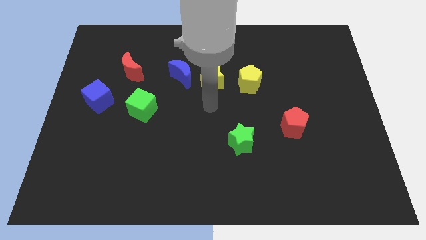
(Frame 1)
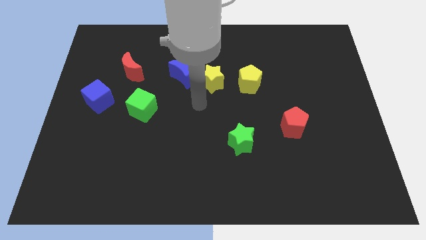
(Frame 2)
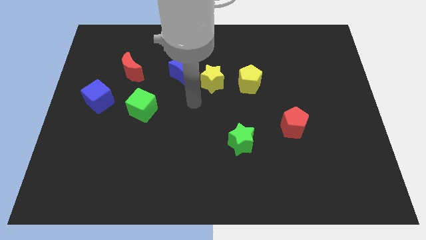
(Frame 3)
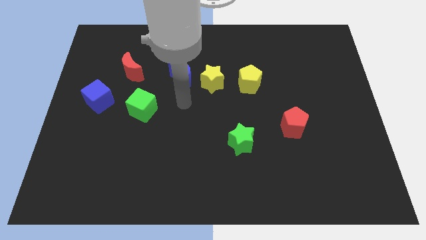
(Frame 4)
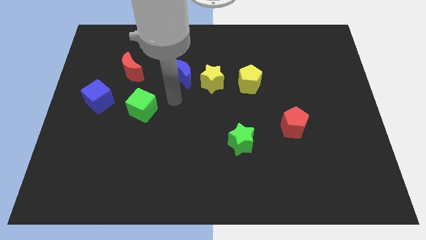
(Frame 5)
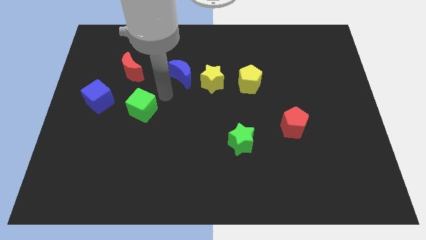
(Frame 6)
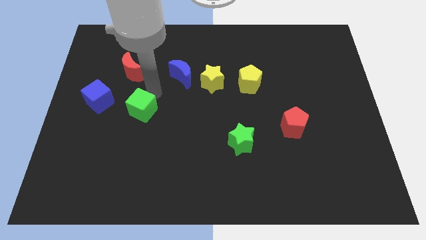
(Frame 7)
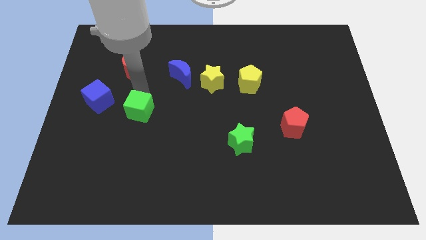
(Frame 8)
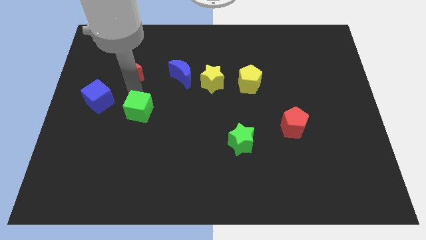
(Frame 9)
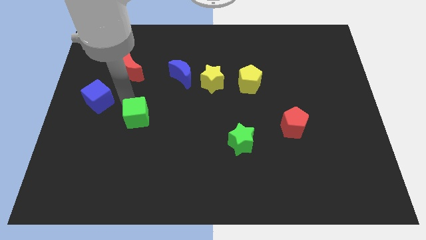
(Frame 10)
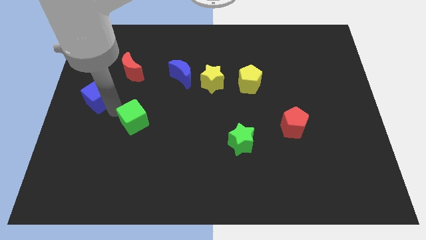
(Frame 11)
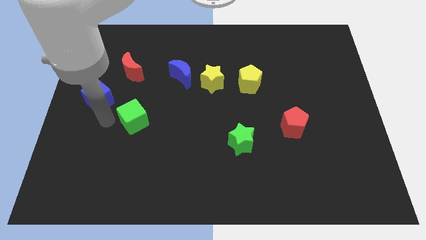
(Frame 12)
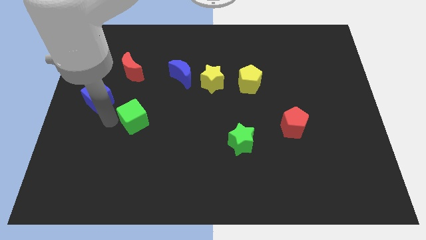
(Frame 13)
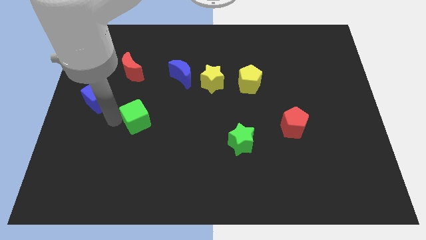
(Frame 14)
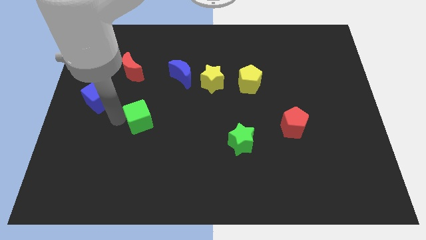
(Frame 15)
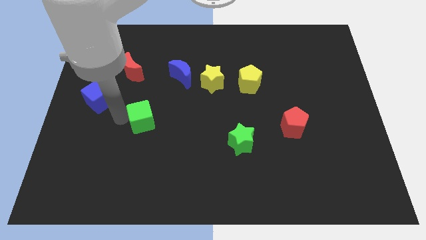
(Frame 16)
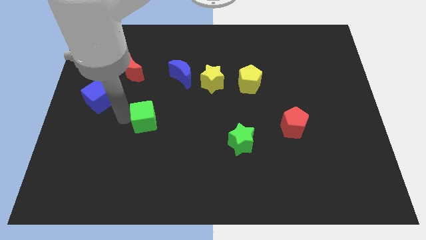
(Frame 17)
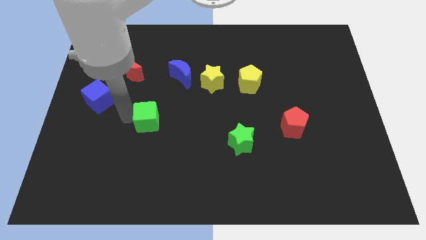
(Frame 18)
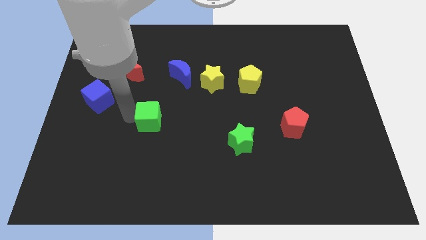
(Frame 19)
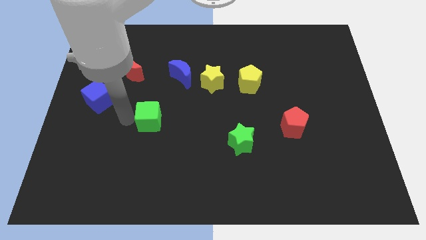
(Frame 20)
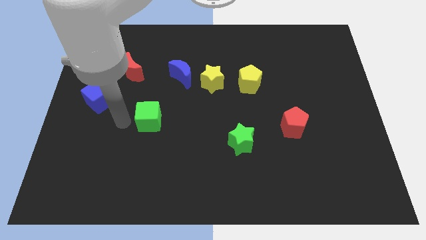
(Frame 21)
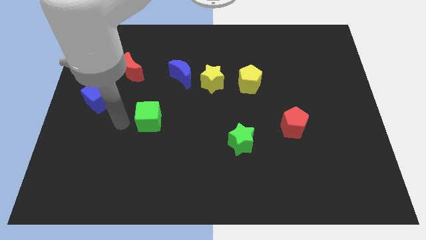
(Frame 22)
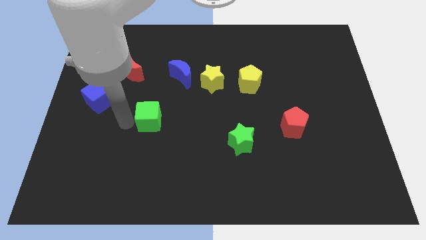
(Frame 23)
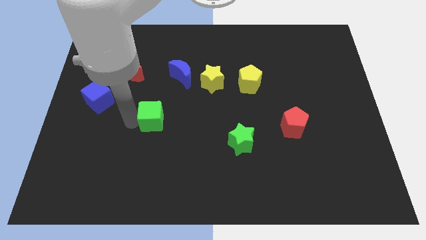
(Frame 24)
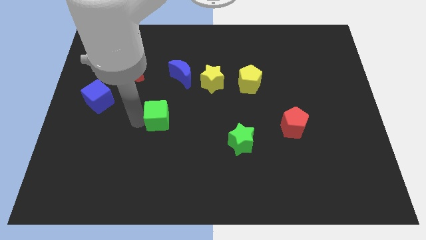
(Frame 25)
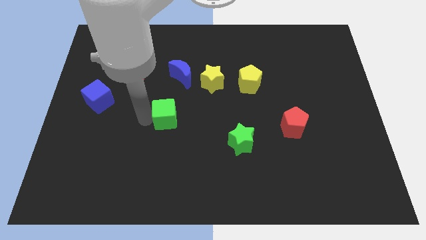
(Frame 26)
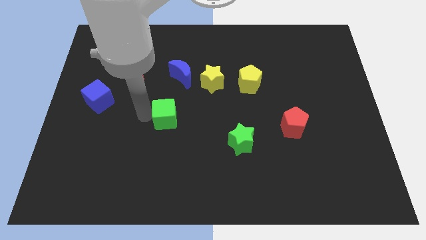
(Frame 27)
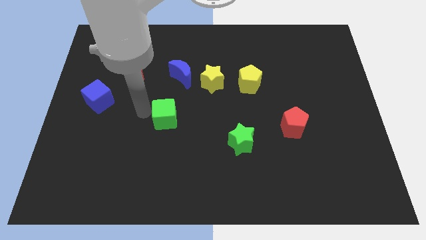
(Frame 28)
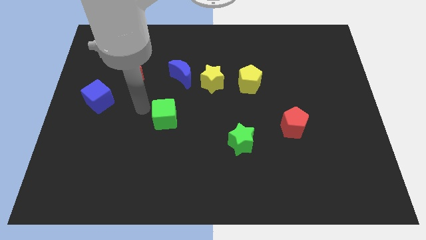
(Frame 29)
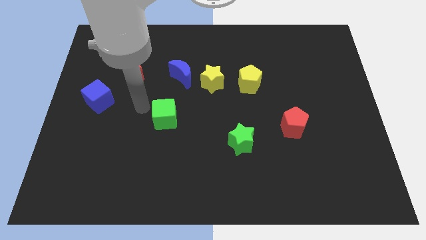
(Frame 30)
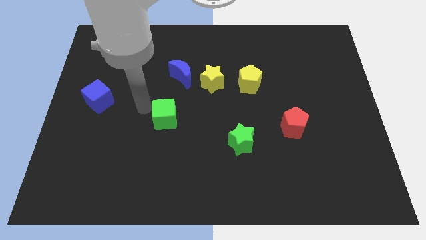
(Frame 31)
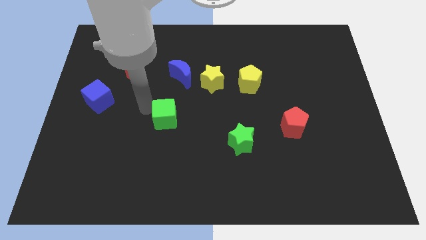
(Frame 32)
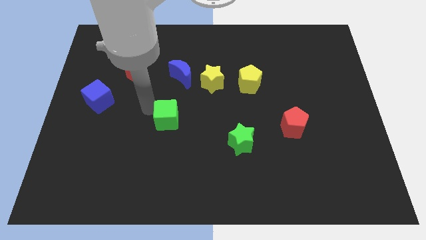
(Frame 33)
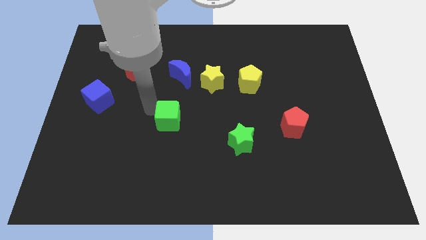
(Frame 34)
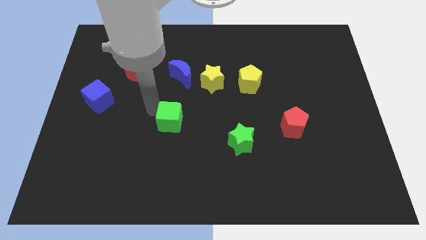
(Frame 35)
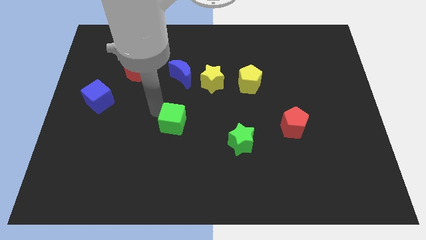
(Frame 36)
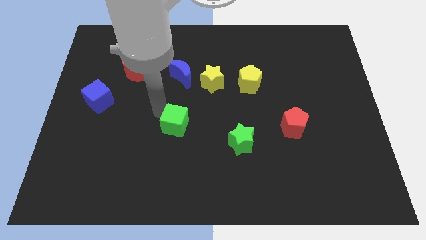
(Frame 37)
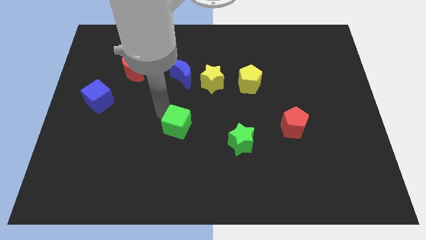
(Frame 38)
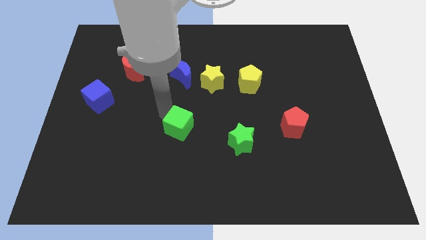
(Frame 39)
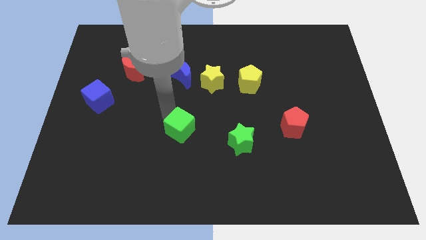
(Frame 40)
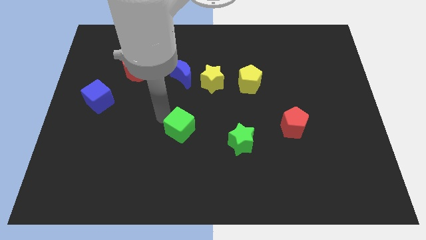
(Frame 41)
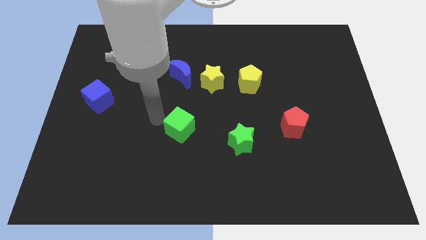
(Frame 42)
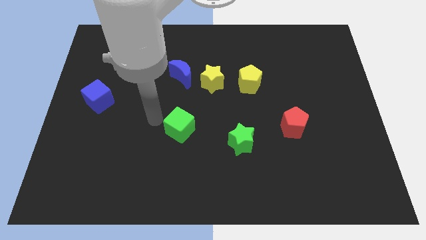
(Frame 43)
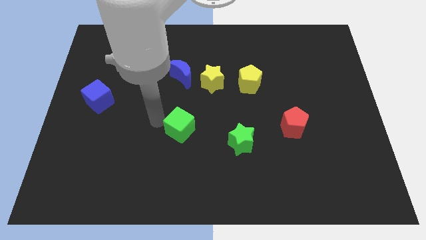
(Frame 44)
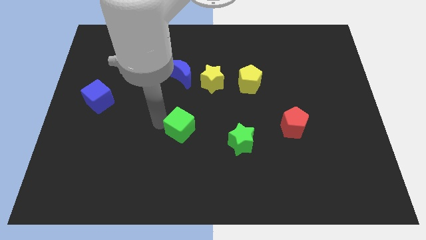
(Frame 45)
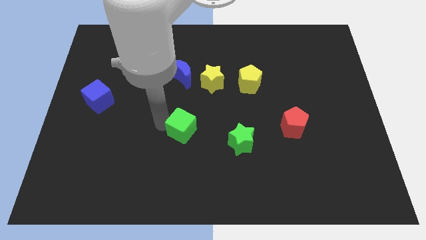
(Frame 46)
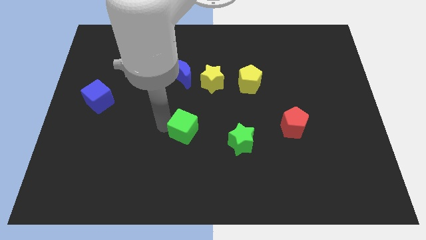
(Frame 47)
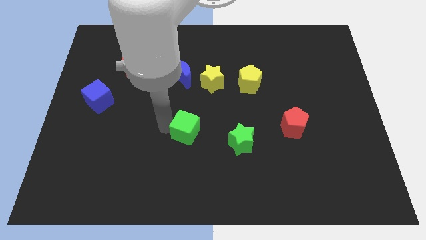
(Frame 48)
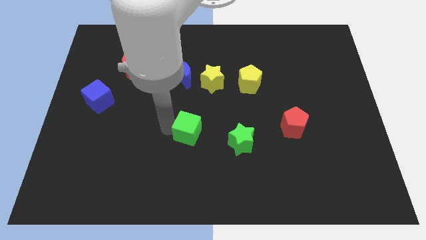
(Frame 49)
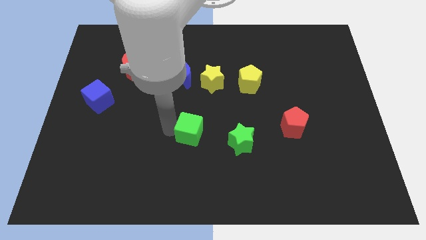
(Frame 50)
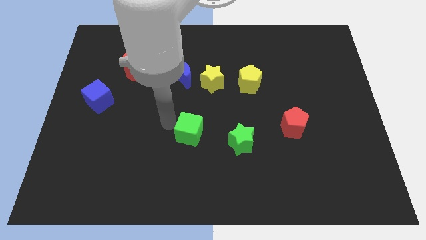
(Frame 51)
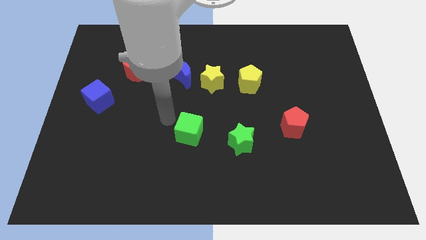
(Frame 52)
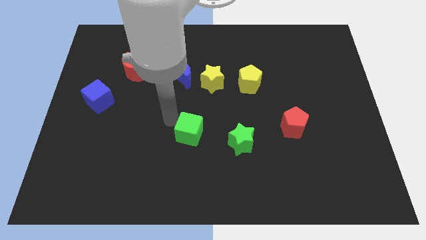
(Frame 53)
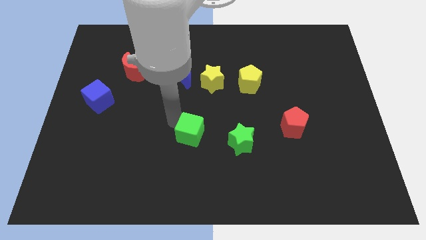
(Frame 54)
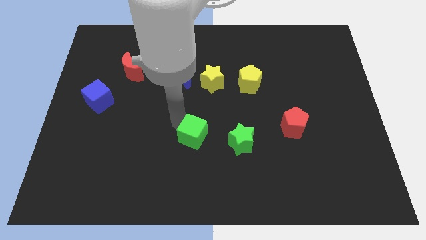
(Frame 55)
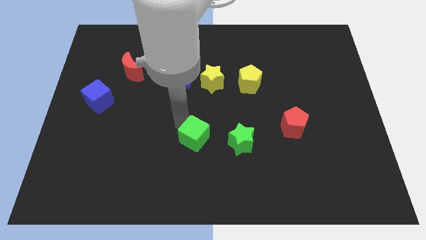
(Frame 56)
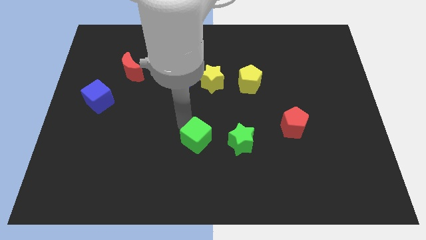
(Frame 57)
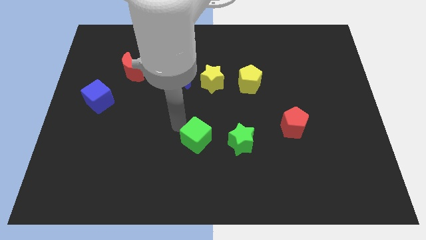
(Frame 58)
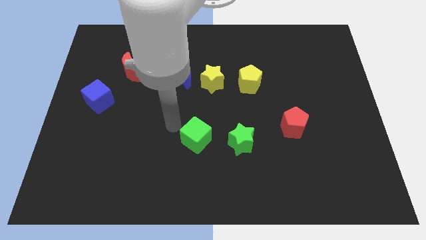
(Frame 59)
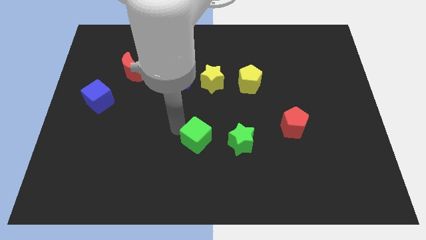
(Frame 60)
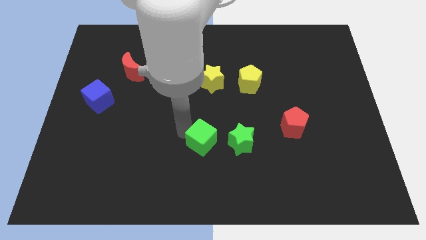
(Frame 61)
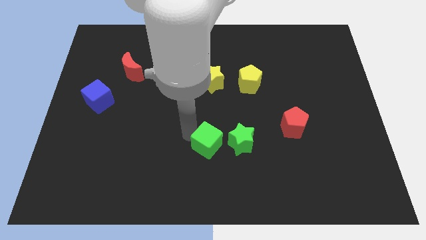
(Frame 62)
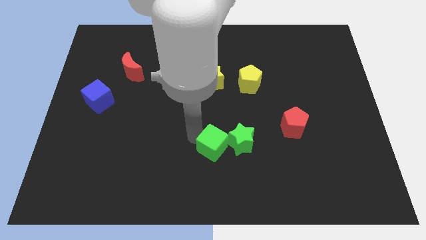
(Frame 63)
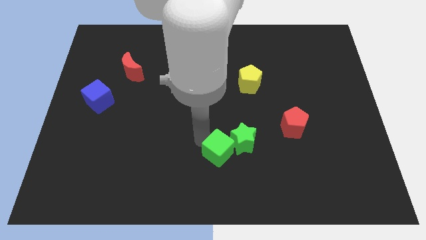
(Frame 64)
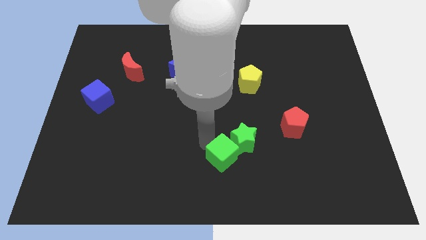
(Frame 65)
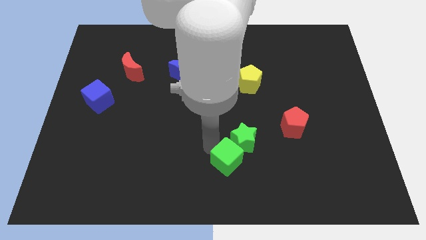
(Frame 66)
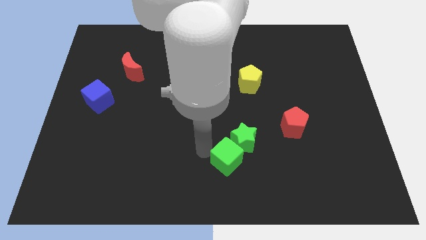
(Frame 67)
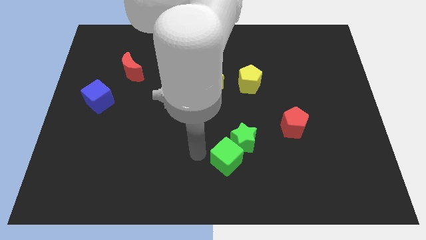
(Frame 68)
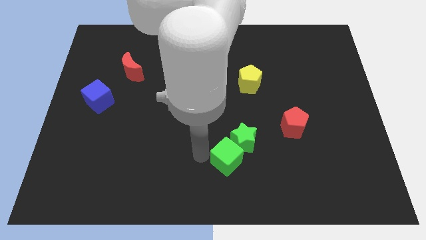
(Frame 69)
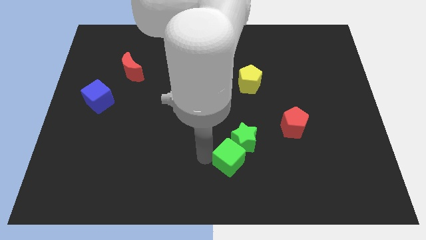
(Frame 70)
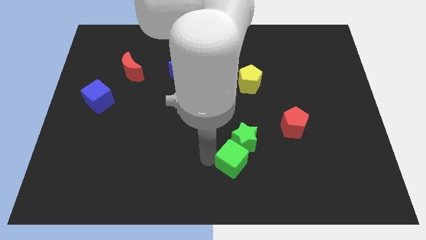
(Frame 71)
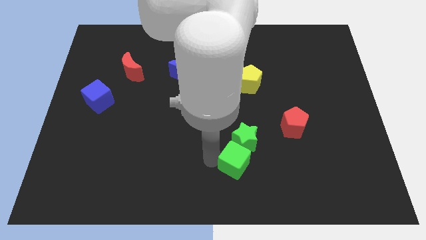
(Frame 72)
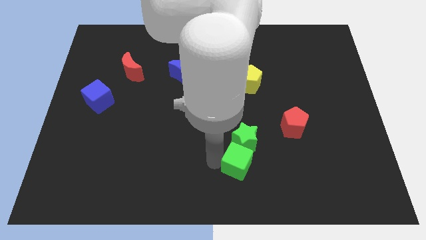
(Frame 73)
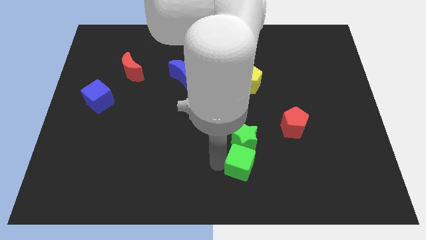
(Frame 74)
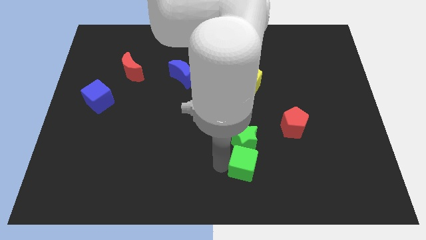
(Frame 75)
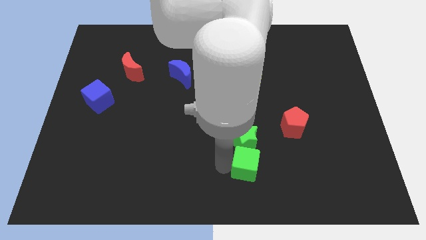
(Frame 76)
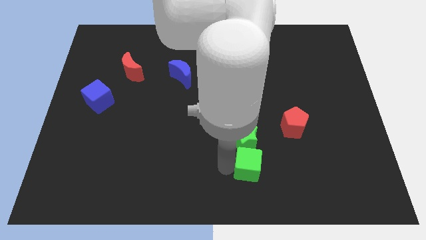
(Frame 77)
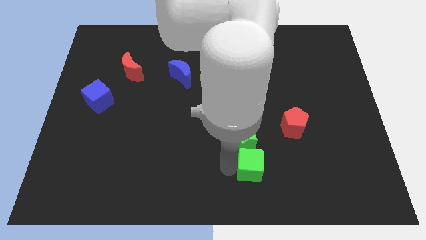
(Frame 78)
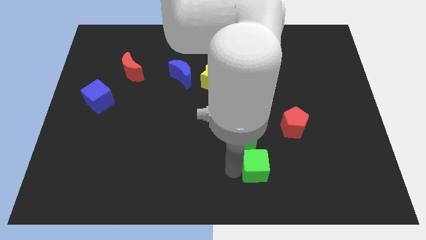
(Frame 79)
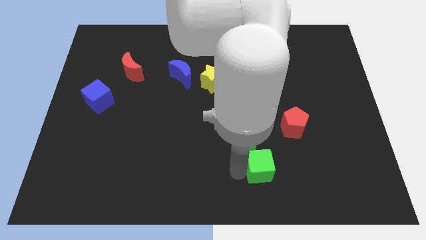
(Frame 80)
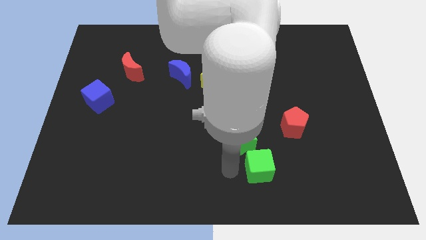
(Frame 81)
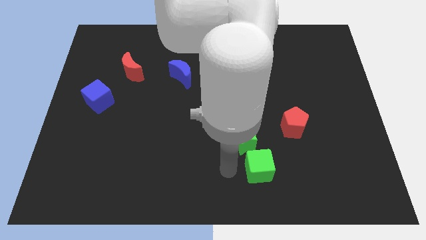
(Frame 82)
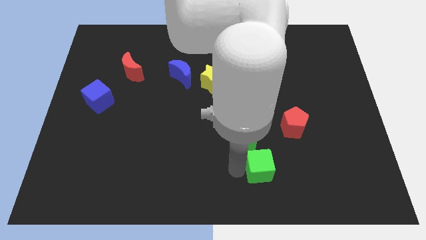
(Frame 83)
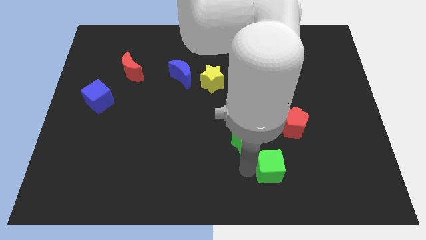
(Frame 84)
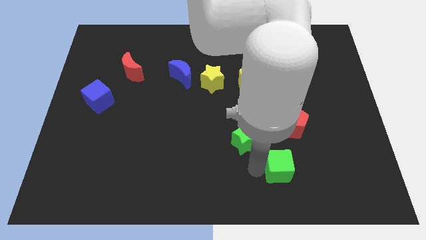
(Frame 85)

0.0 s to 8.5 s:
put the green cube to the bottom side of the red pentagon
